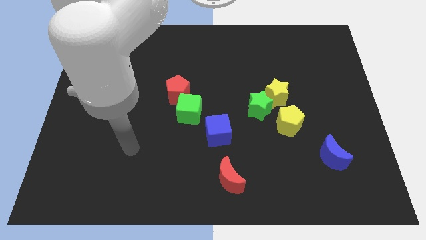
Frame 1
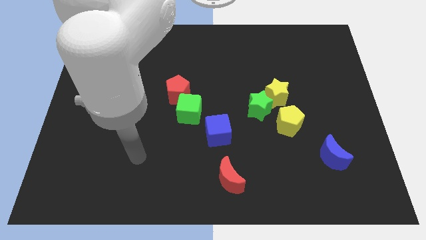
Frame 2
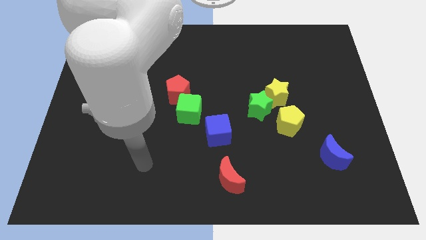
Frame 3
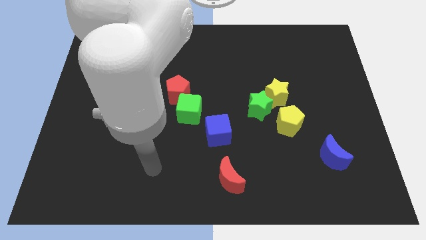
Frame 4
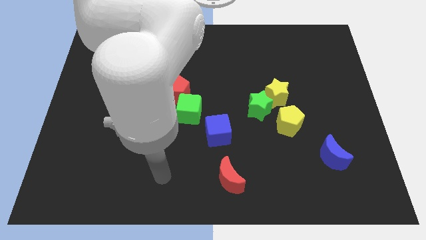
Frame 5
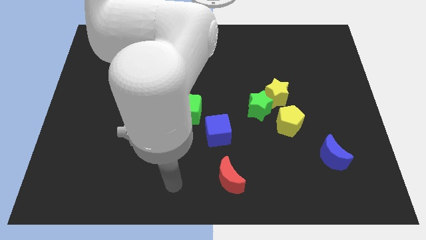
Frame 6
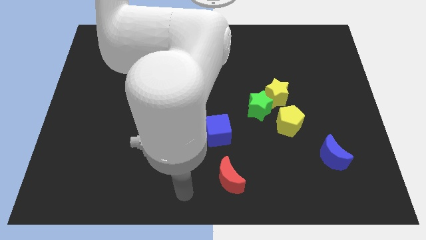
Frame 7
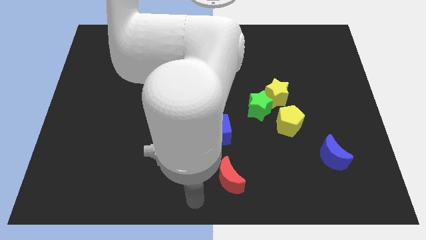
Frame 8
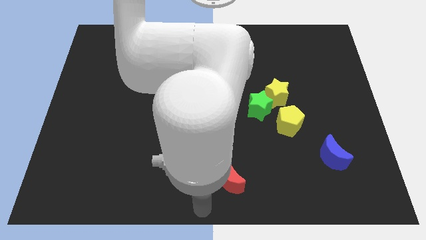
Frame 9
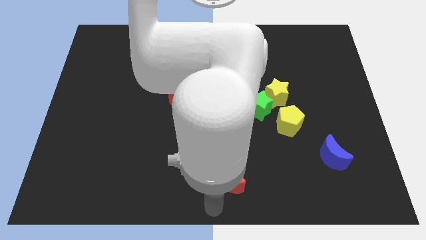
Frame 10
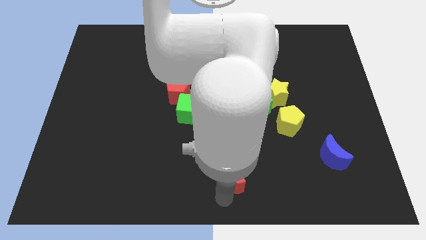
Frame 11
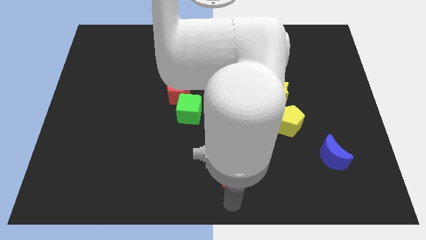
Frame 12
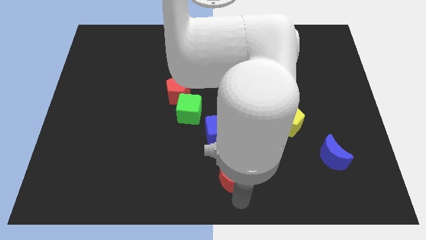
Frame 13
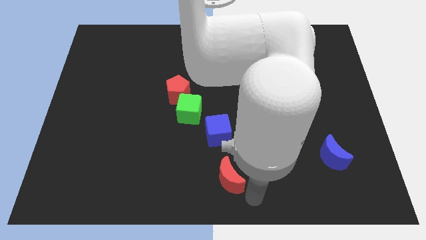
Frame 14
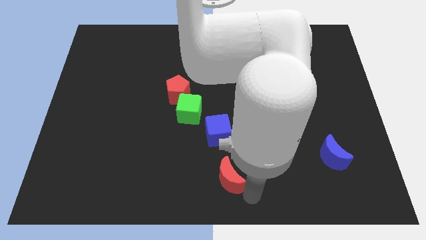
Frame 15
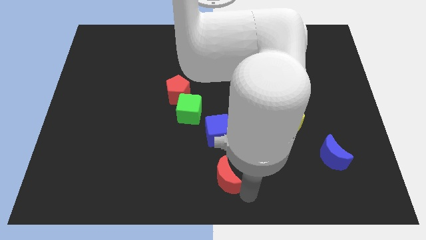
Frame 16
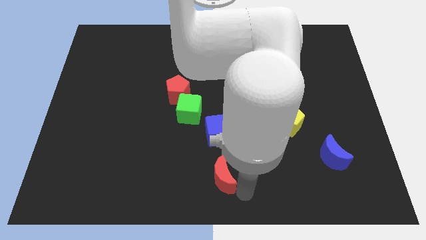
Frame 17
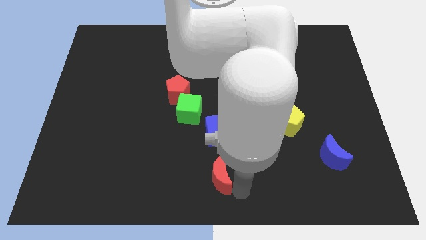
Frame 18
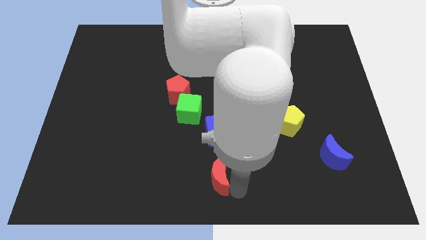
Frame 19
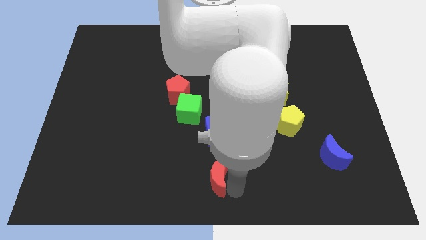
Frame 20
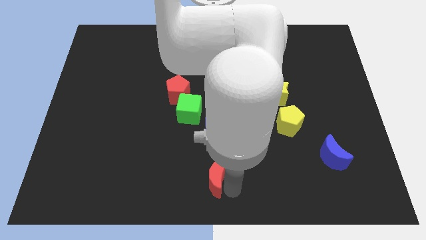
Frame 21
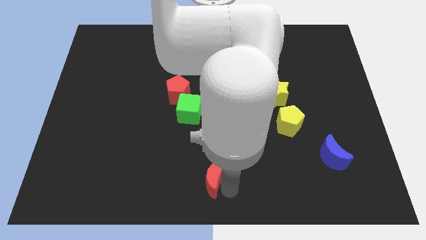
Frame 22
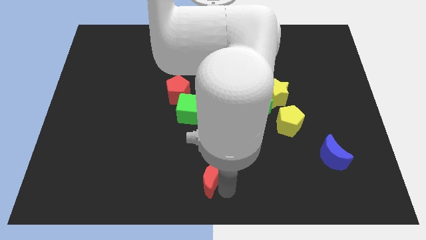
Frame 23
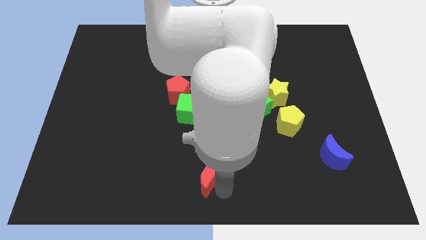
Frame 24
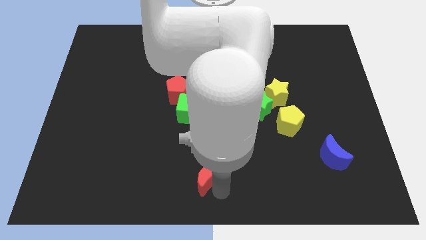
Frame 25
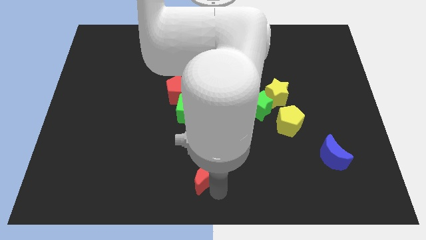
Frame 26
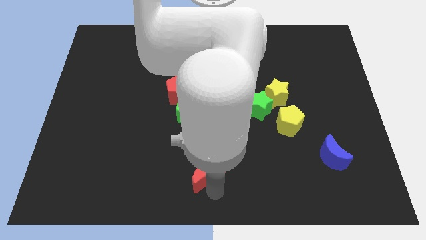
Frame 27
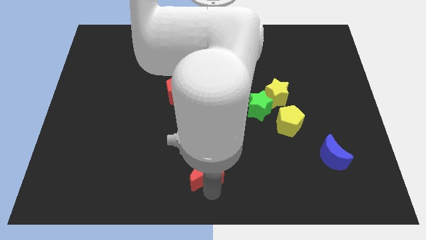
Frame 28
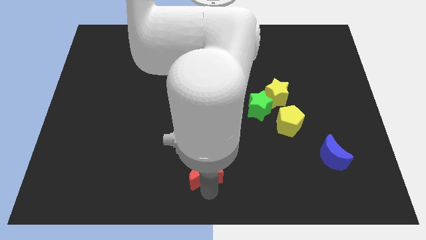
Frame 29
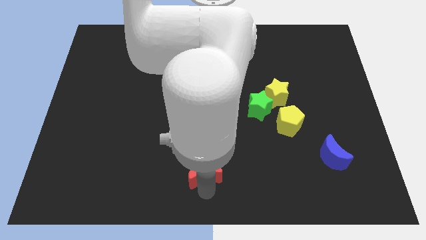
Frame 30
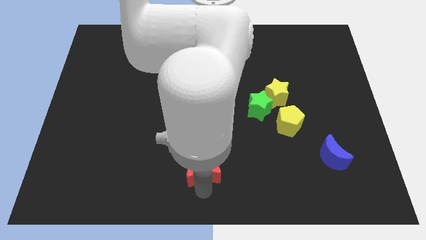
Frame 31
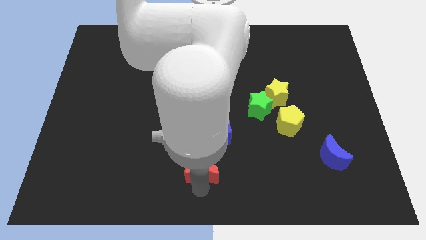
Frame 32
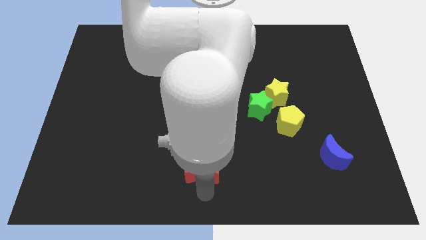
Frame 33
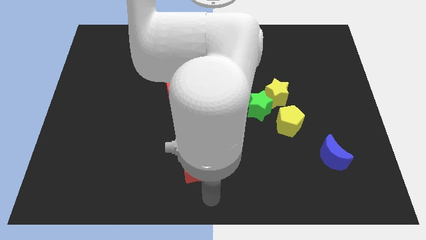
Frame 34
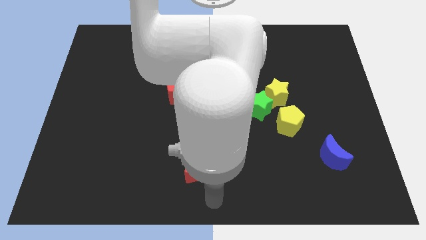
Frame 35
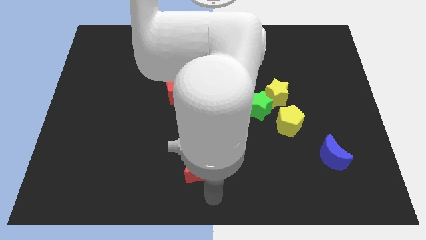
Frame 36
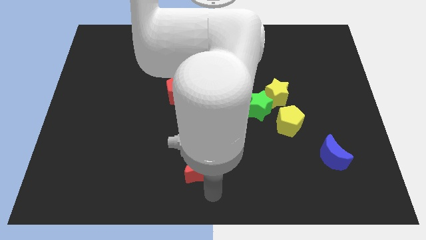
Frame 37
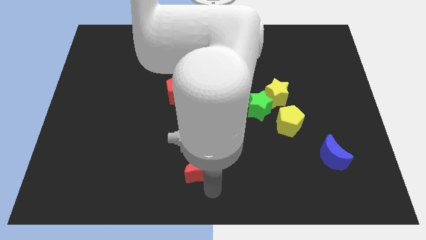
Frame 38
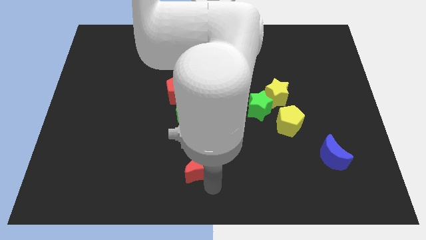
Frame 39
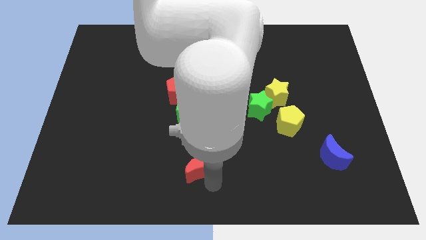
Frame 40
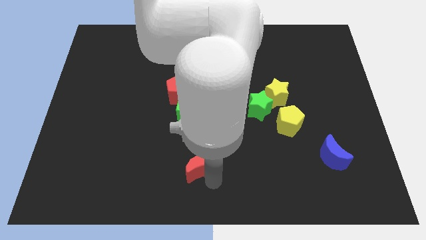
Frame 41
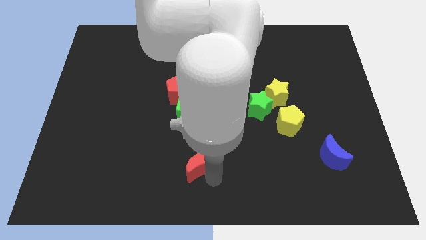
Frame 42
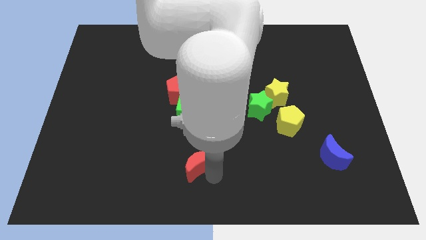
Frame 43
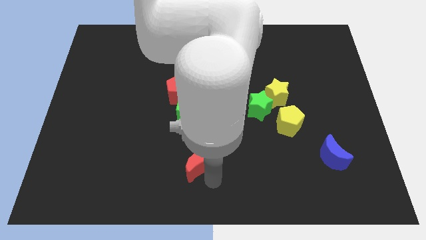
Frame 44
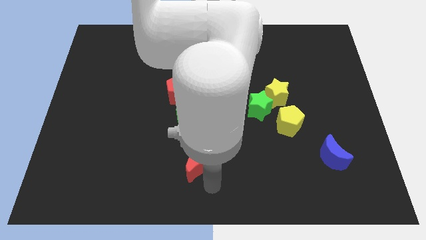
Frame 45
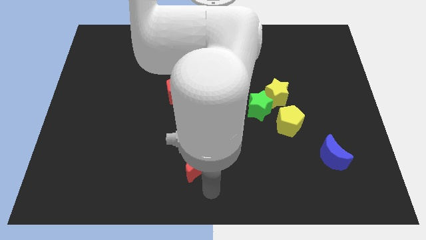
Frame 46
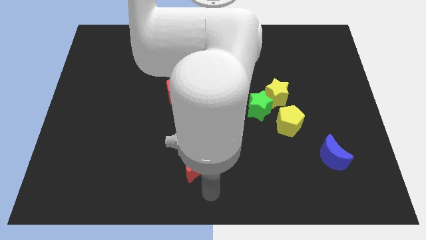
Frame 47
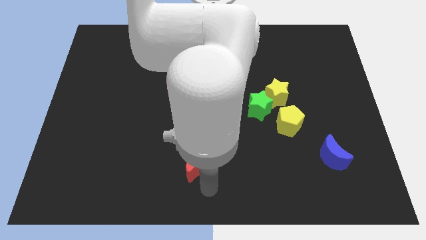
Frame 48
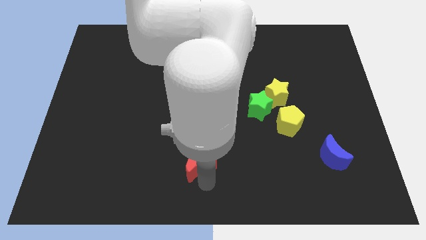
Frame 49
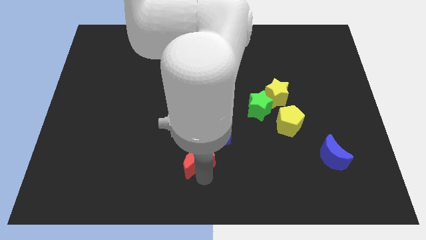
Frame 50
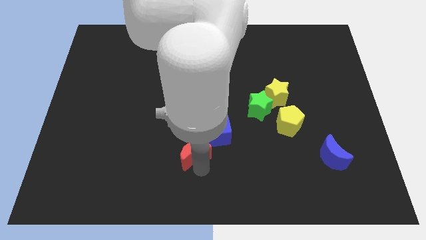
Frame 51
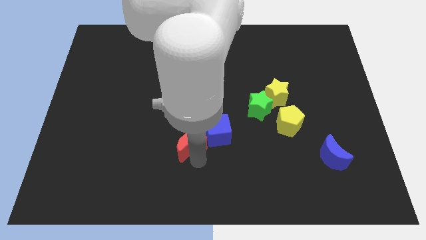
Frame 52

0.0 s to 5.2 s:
move the red moon below the red pentagon

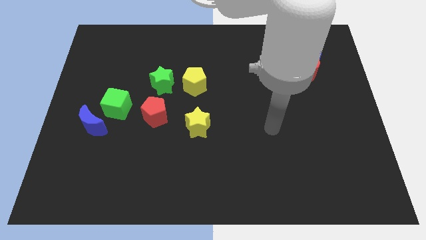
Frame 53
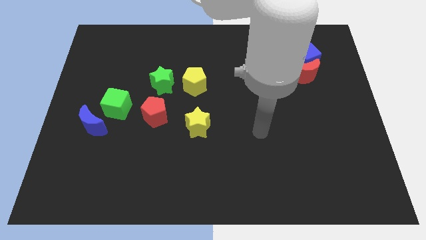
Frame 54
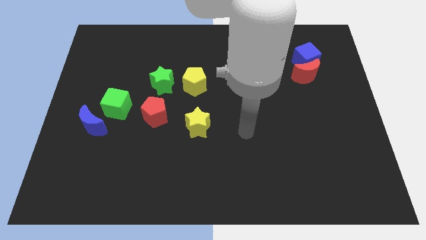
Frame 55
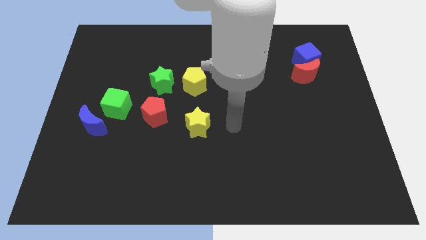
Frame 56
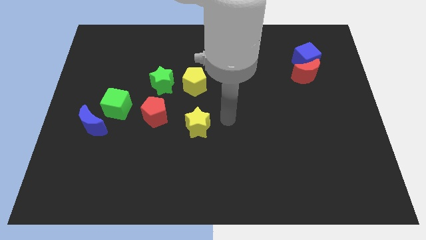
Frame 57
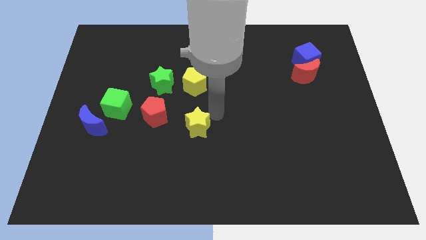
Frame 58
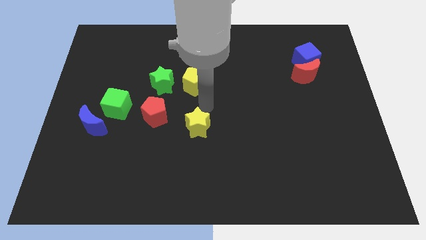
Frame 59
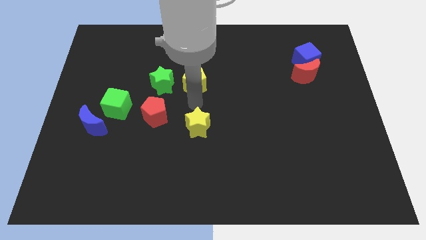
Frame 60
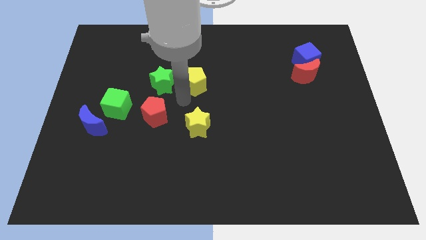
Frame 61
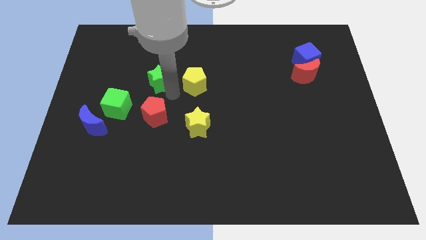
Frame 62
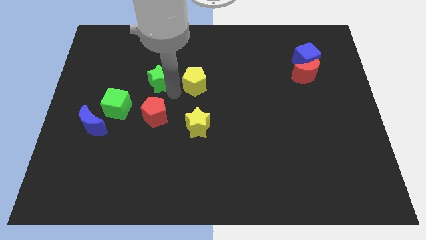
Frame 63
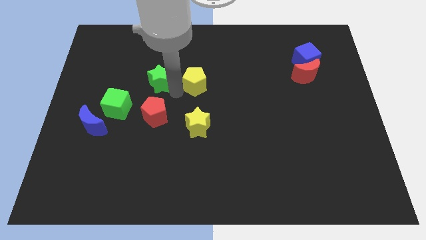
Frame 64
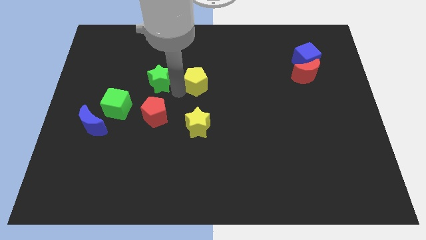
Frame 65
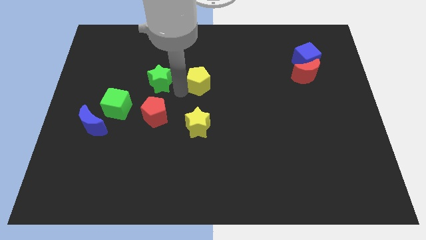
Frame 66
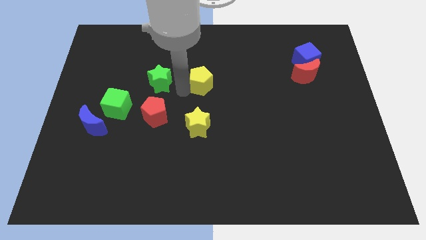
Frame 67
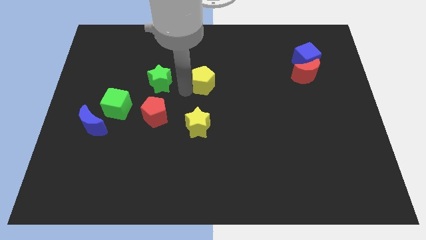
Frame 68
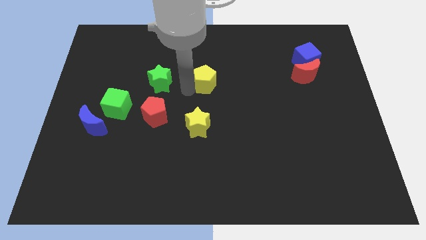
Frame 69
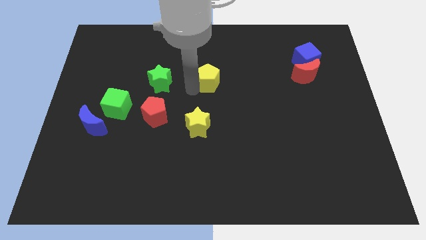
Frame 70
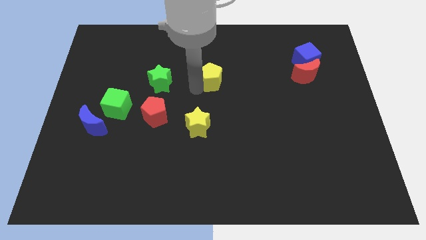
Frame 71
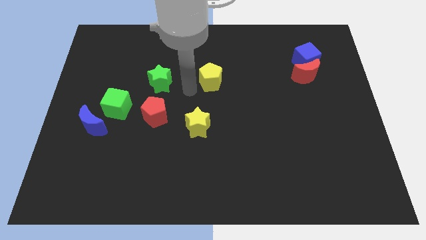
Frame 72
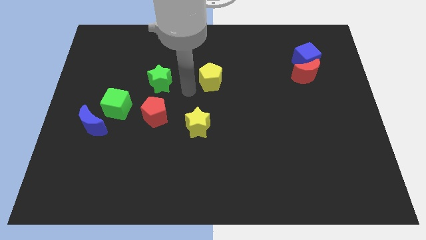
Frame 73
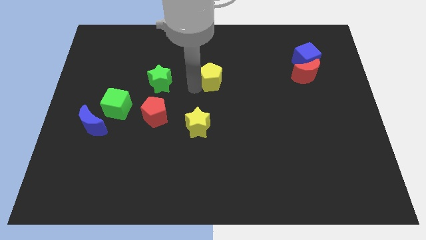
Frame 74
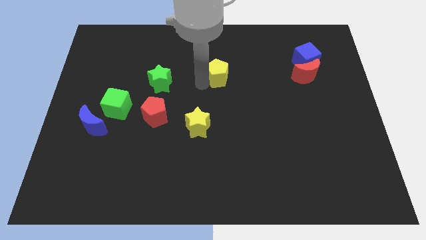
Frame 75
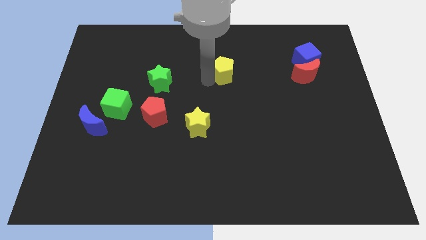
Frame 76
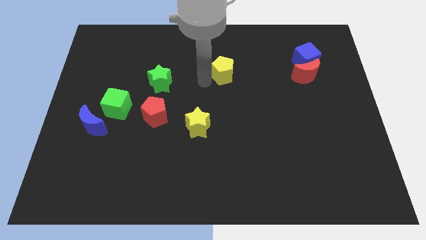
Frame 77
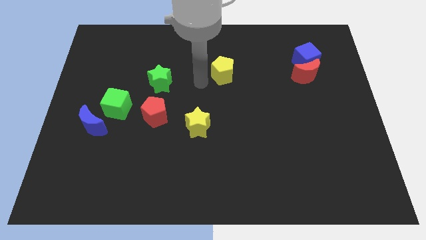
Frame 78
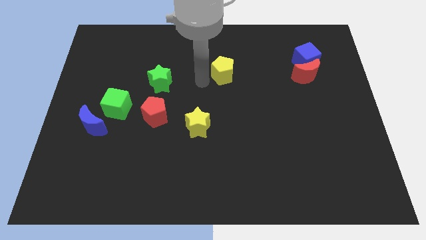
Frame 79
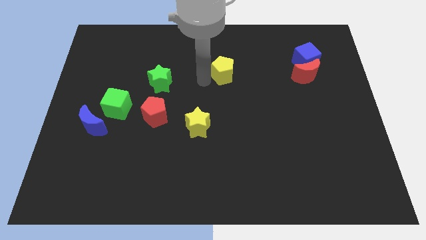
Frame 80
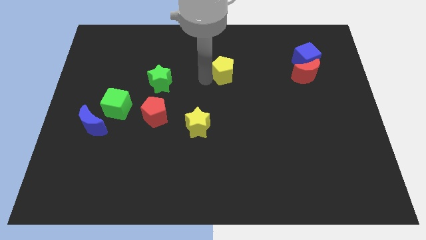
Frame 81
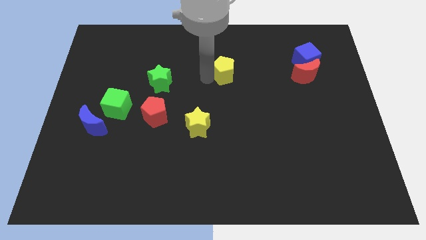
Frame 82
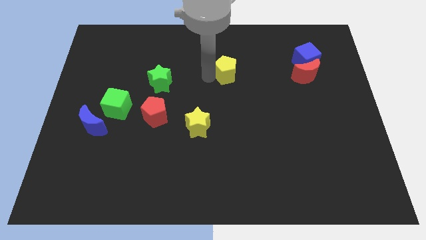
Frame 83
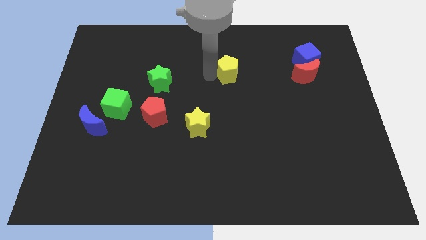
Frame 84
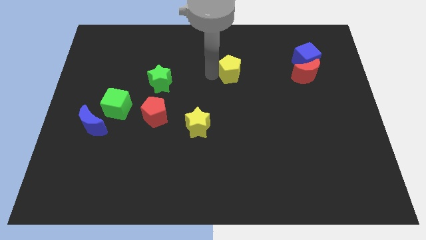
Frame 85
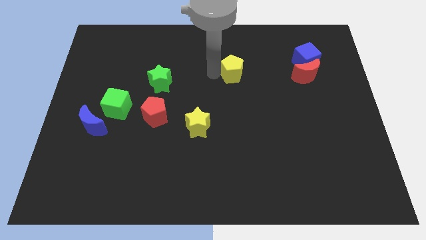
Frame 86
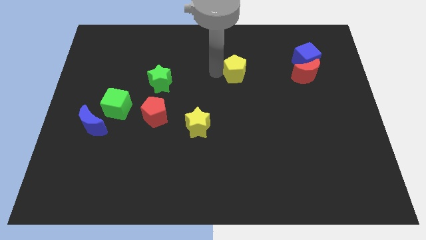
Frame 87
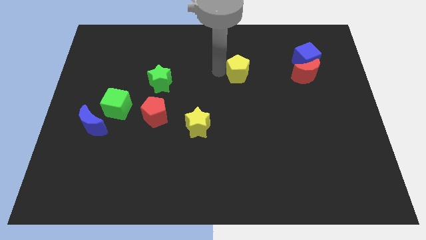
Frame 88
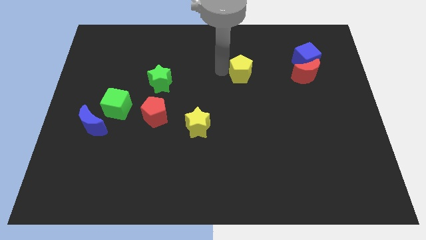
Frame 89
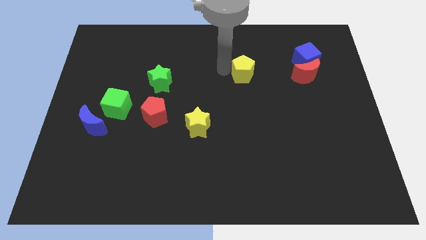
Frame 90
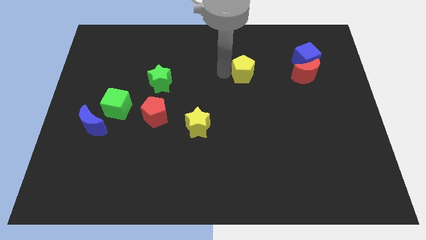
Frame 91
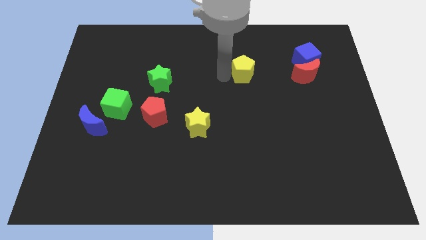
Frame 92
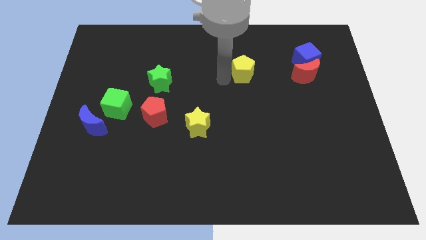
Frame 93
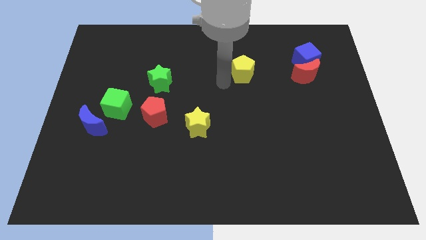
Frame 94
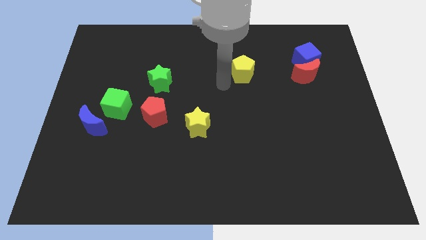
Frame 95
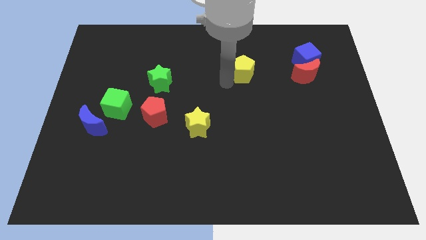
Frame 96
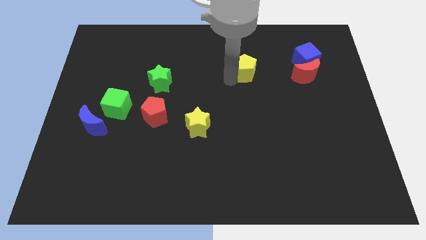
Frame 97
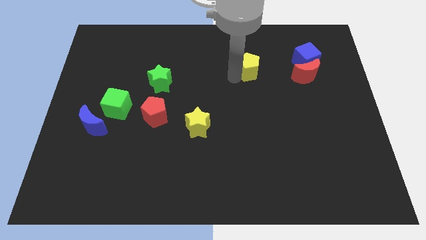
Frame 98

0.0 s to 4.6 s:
slide the yellow pentagon to the left of the blue cube
